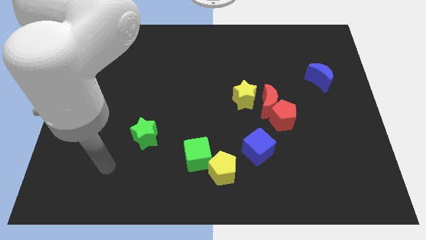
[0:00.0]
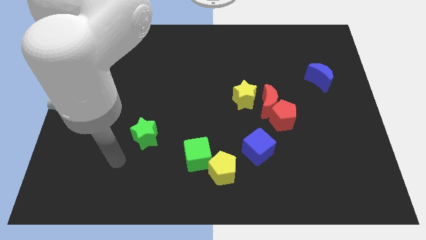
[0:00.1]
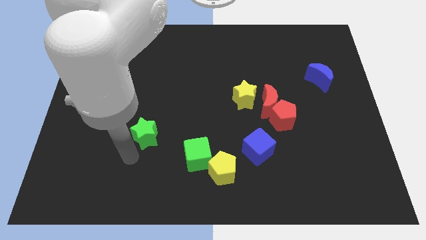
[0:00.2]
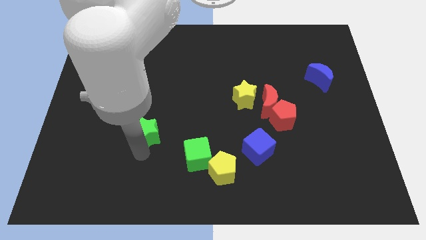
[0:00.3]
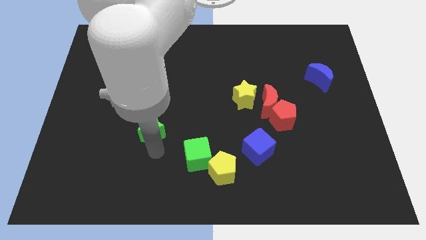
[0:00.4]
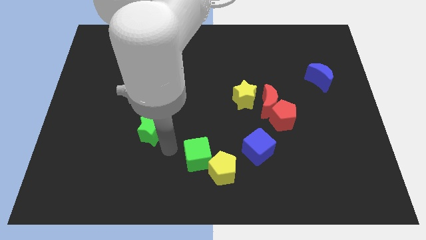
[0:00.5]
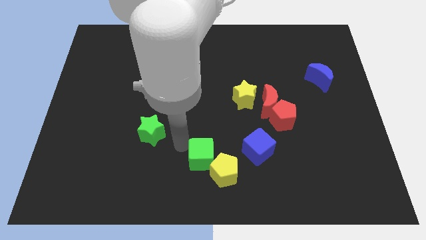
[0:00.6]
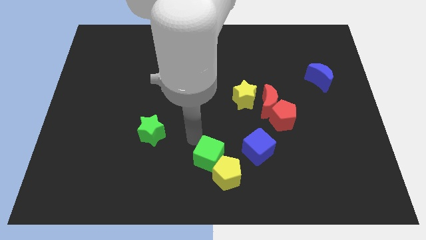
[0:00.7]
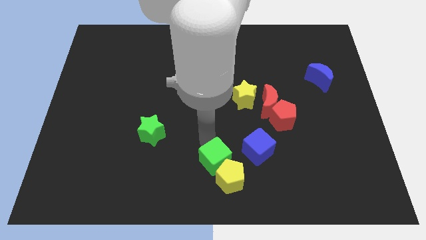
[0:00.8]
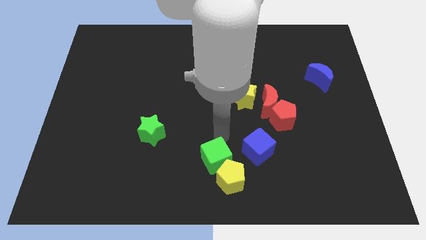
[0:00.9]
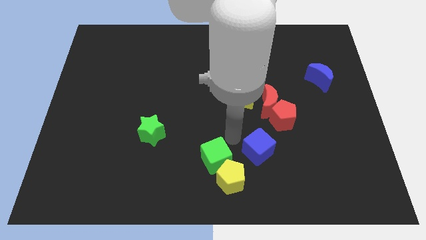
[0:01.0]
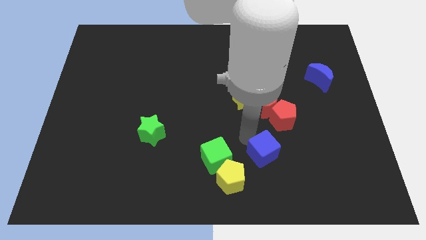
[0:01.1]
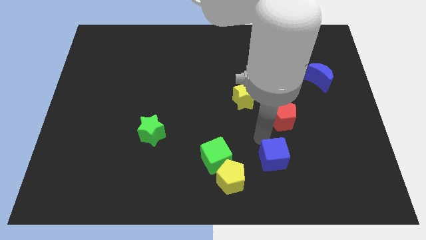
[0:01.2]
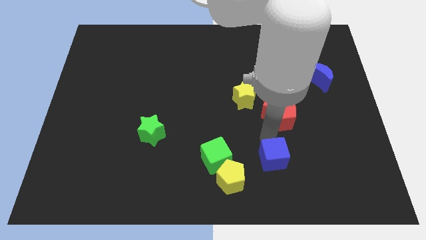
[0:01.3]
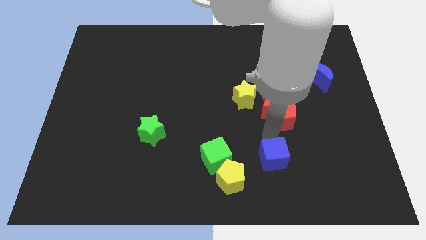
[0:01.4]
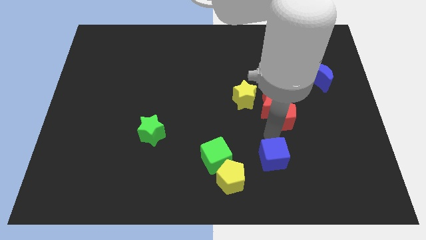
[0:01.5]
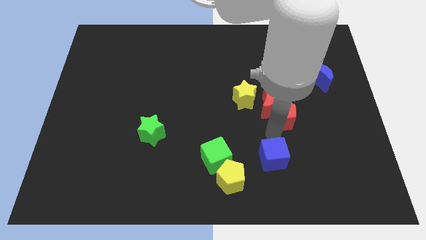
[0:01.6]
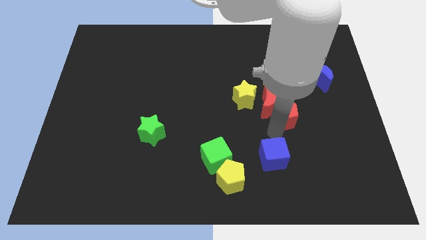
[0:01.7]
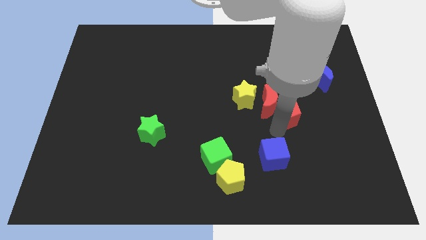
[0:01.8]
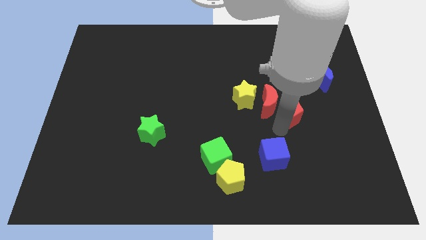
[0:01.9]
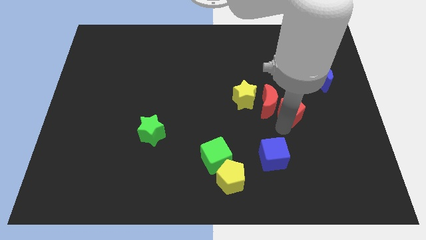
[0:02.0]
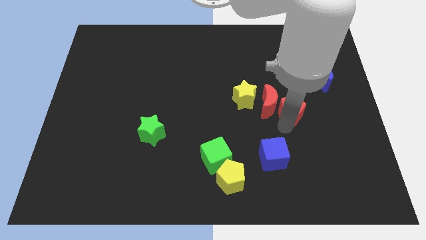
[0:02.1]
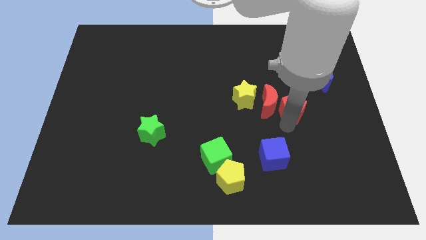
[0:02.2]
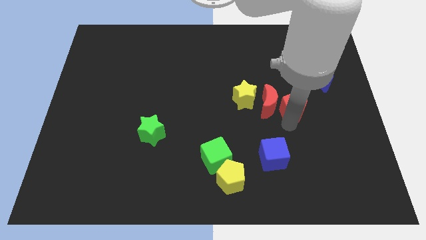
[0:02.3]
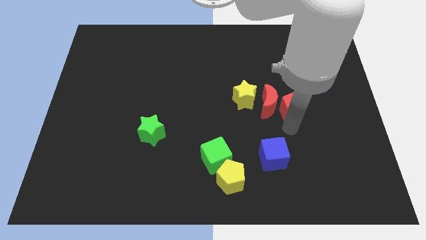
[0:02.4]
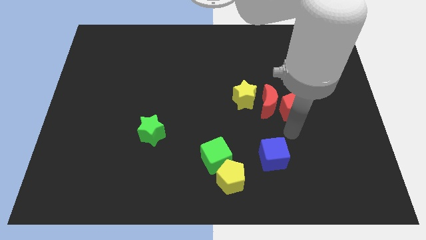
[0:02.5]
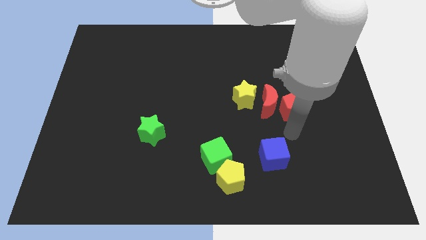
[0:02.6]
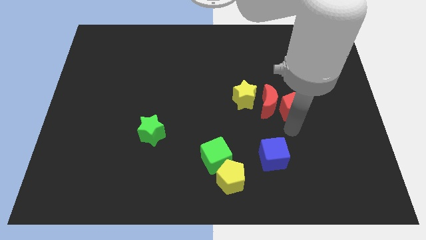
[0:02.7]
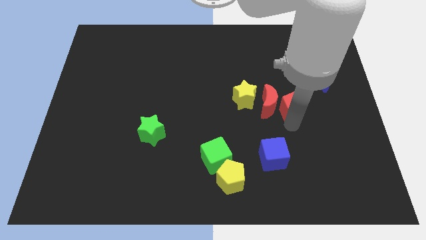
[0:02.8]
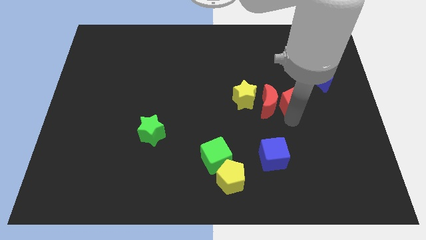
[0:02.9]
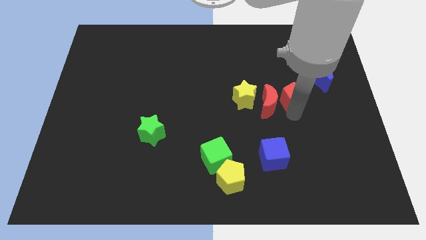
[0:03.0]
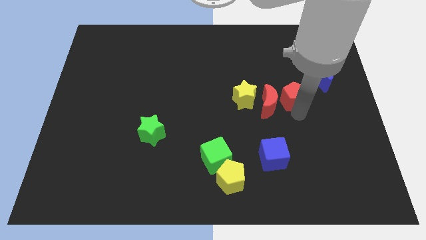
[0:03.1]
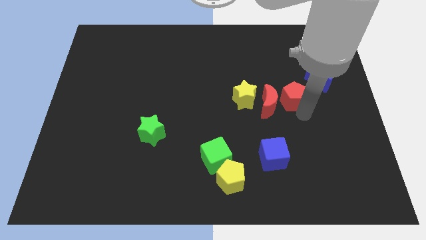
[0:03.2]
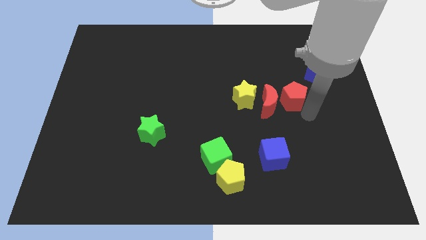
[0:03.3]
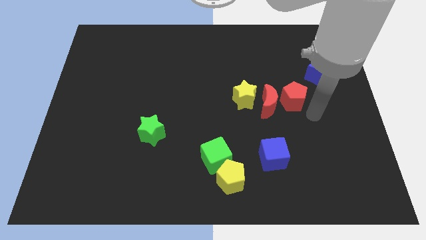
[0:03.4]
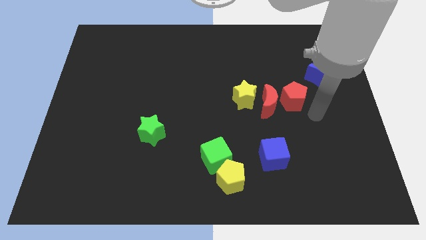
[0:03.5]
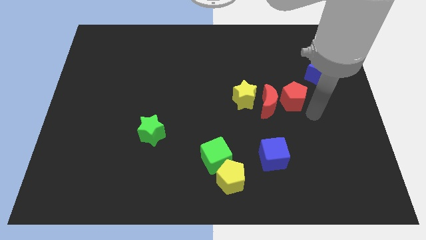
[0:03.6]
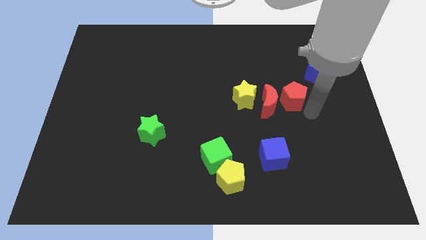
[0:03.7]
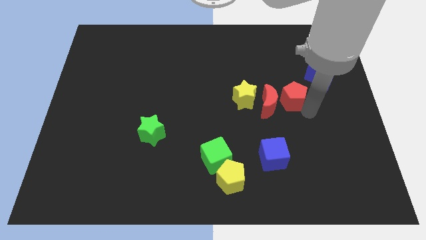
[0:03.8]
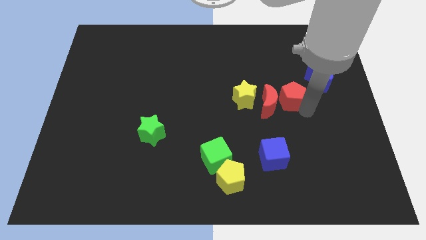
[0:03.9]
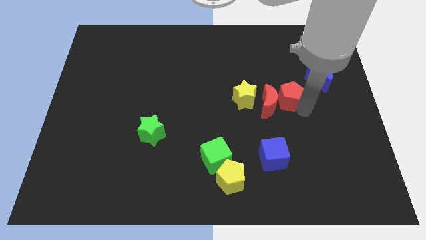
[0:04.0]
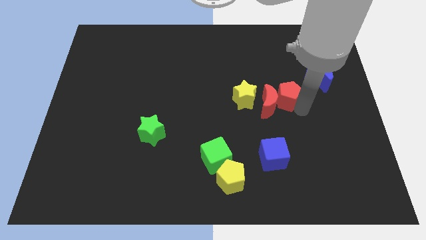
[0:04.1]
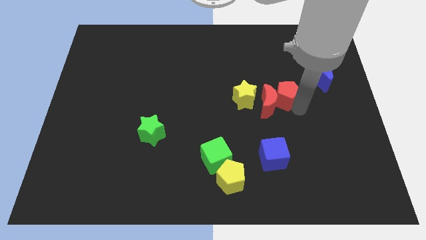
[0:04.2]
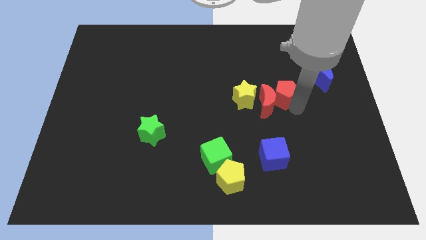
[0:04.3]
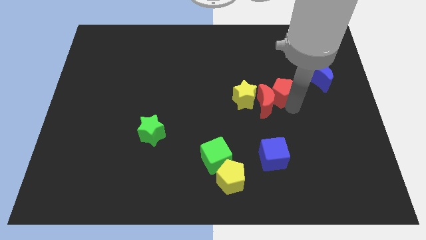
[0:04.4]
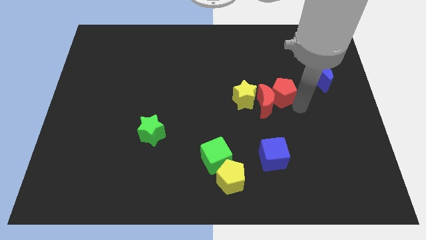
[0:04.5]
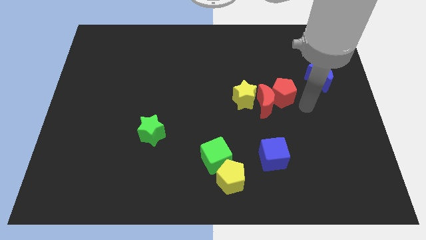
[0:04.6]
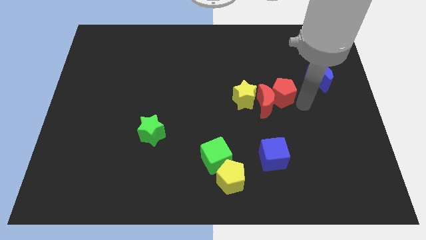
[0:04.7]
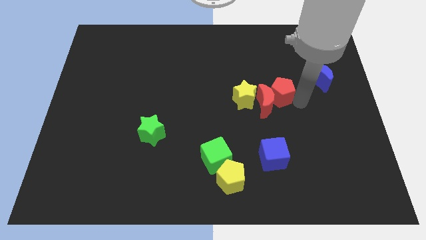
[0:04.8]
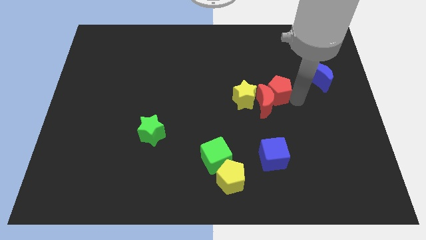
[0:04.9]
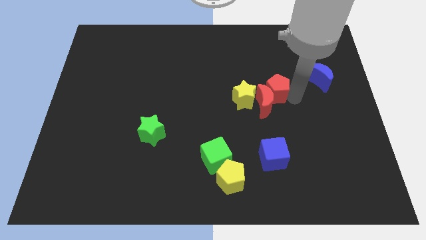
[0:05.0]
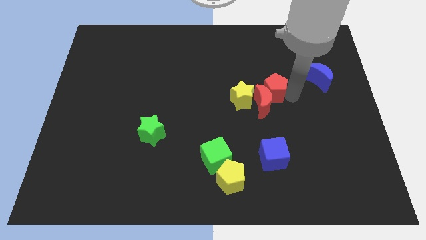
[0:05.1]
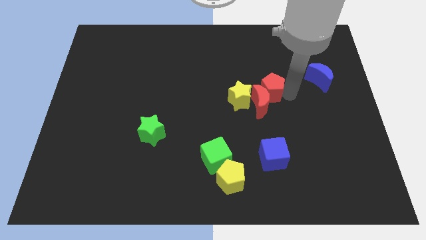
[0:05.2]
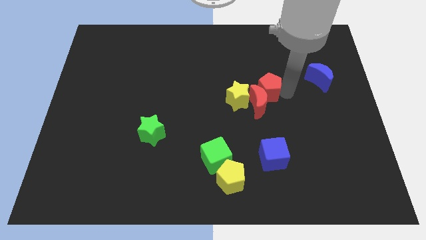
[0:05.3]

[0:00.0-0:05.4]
move the red pentagon up and left a little

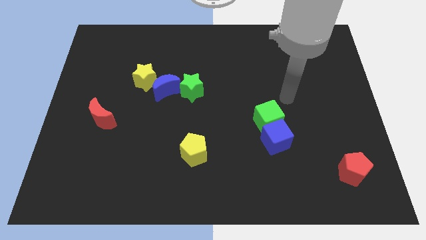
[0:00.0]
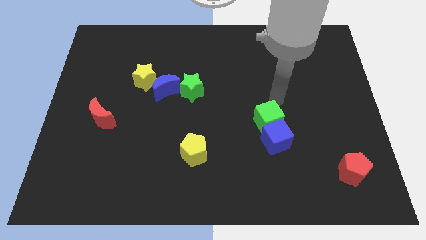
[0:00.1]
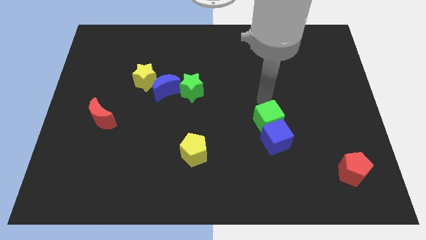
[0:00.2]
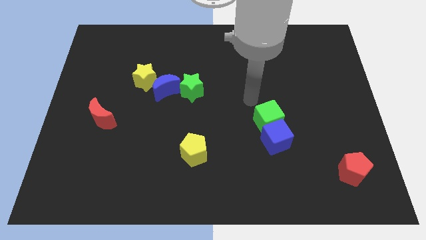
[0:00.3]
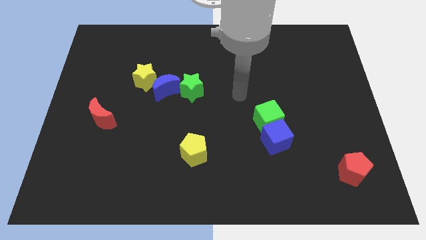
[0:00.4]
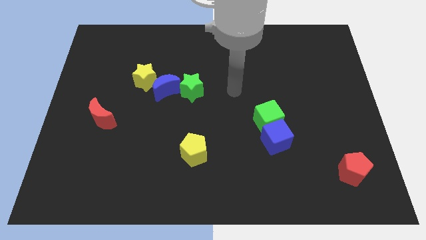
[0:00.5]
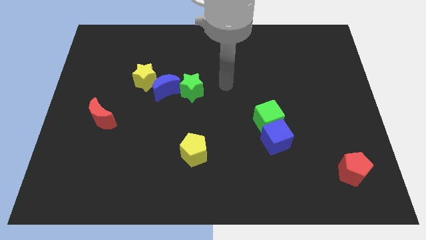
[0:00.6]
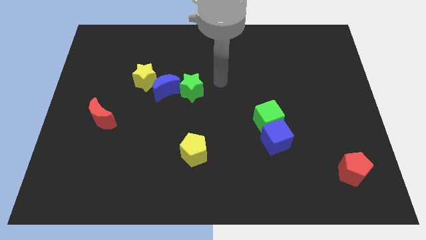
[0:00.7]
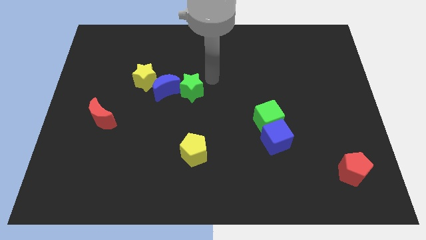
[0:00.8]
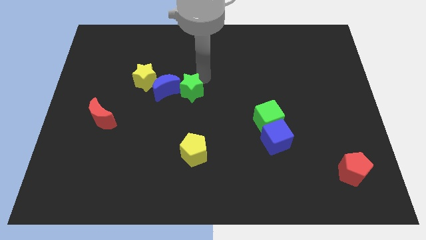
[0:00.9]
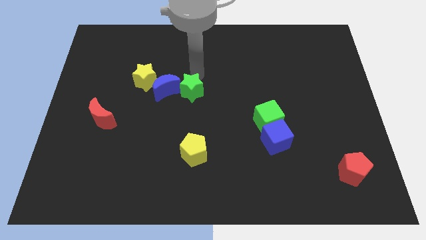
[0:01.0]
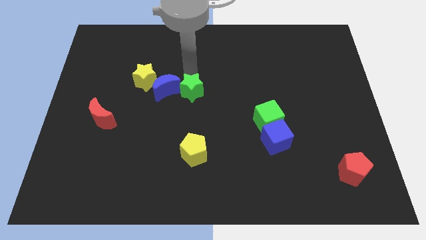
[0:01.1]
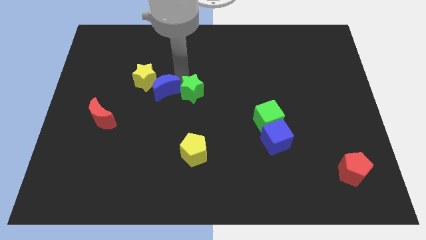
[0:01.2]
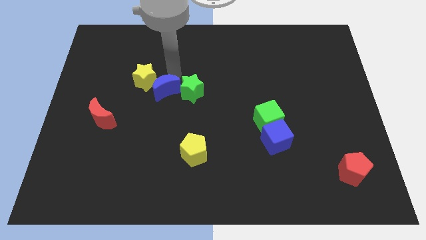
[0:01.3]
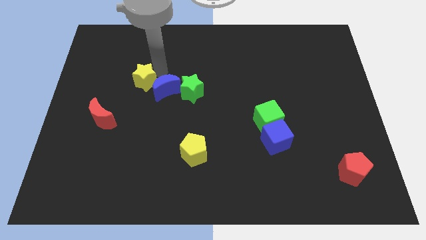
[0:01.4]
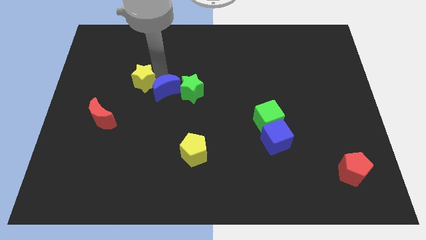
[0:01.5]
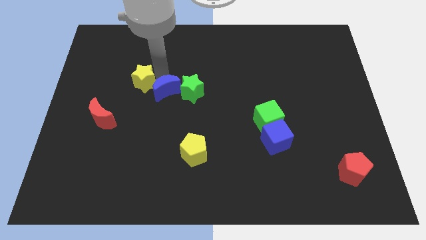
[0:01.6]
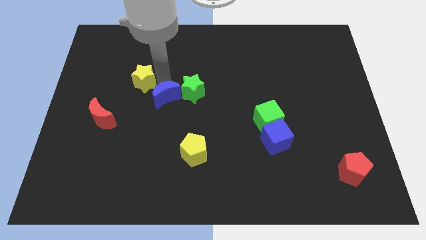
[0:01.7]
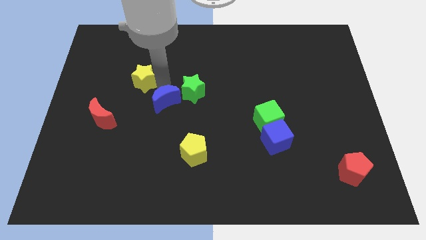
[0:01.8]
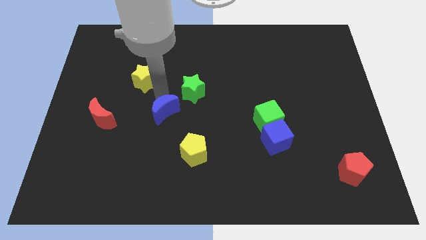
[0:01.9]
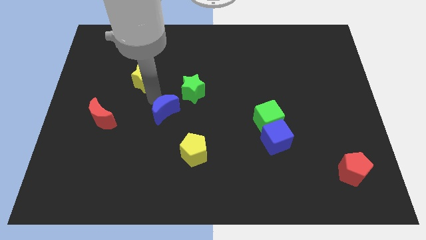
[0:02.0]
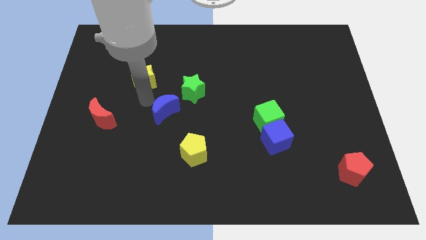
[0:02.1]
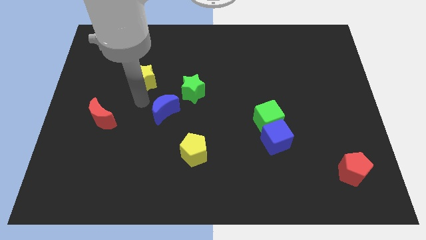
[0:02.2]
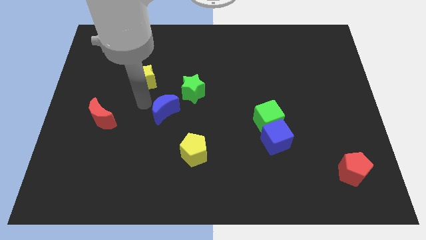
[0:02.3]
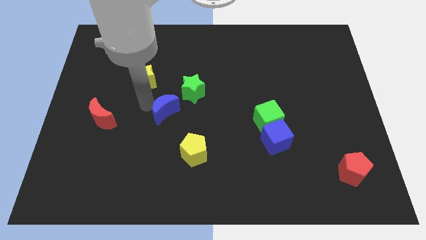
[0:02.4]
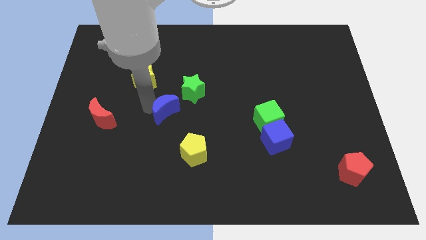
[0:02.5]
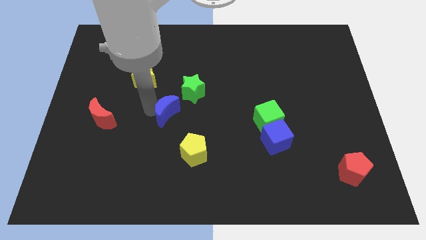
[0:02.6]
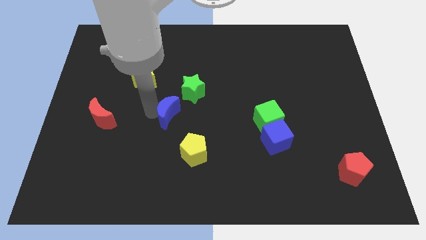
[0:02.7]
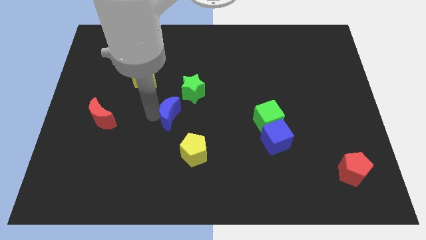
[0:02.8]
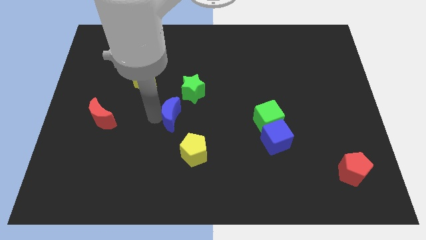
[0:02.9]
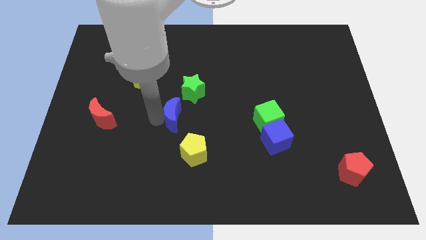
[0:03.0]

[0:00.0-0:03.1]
slide the blue moon a bit downwards and right
